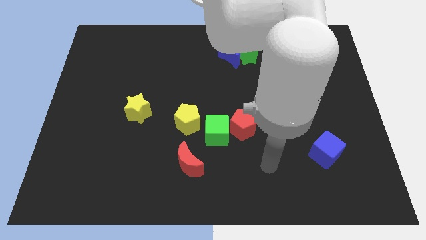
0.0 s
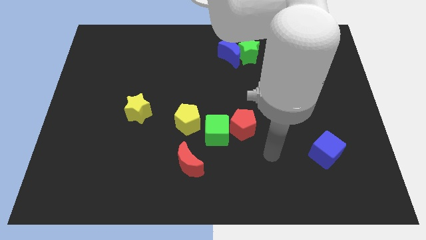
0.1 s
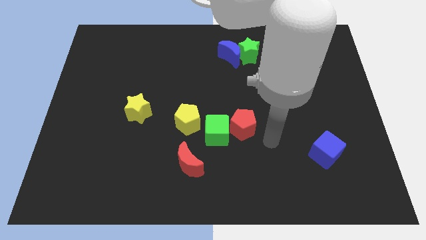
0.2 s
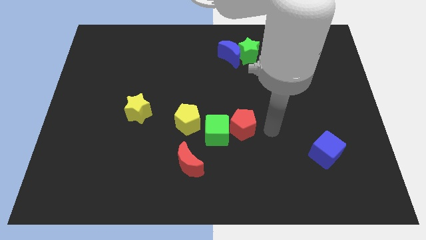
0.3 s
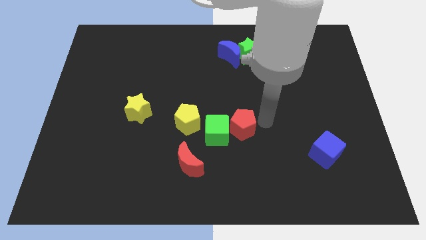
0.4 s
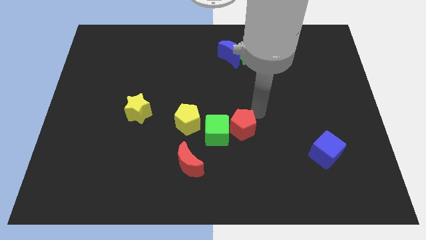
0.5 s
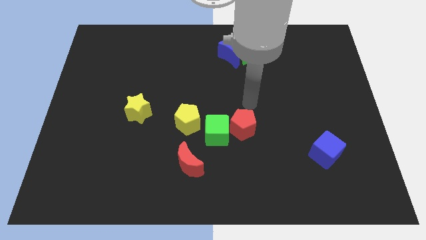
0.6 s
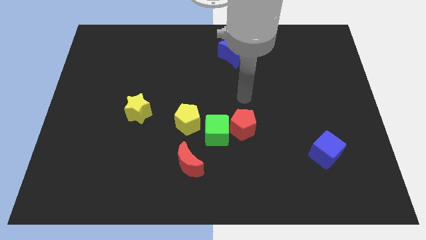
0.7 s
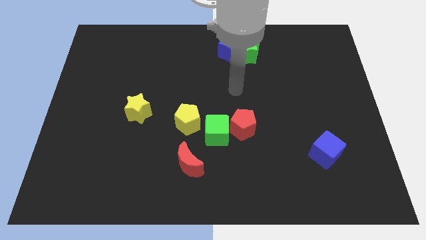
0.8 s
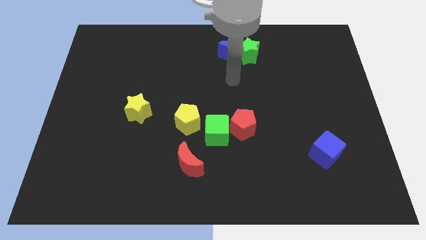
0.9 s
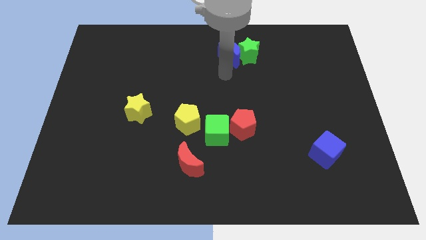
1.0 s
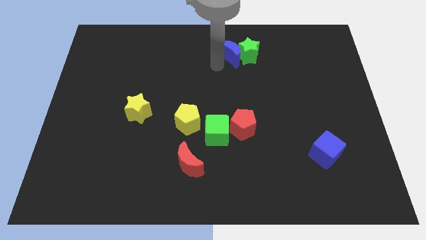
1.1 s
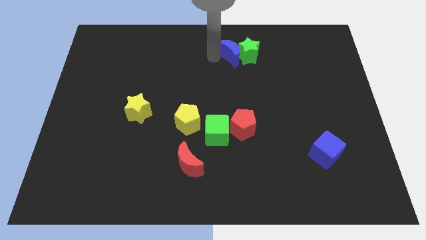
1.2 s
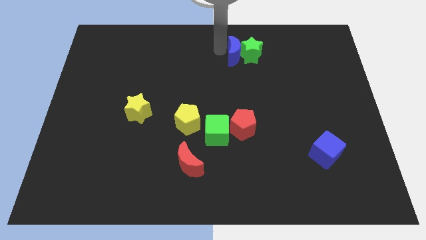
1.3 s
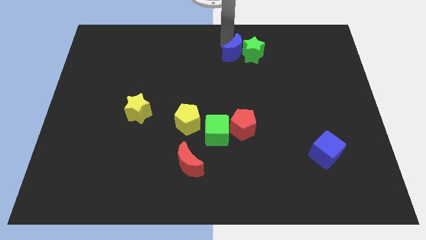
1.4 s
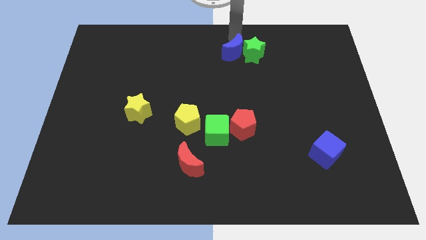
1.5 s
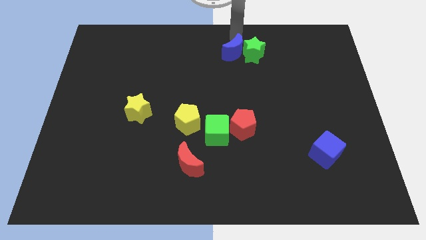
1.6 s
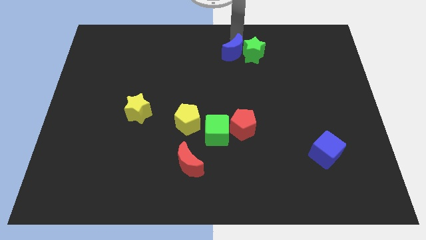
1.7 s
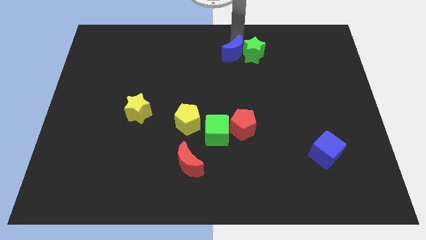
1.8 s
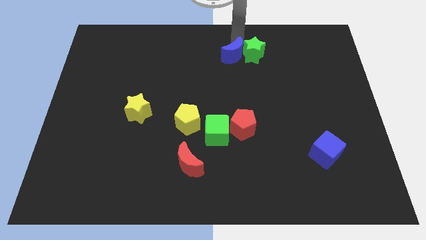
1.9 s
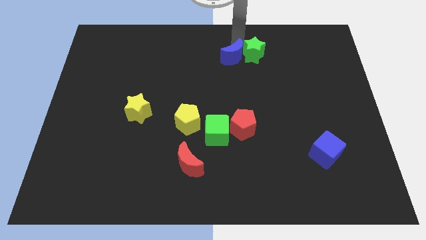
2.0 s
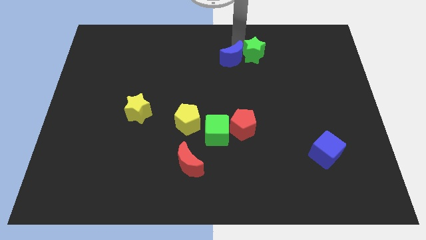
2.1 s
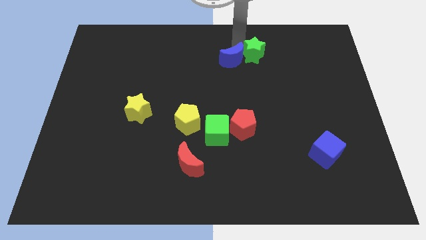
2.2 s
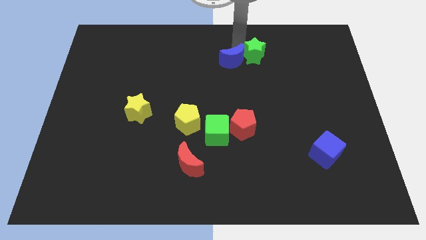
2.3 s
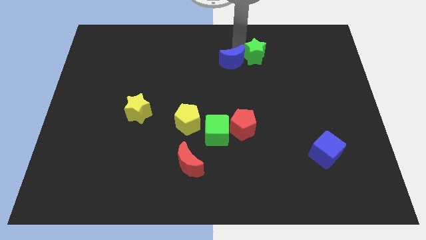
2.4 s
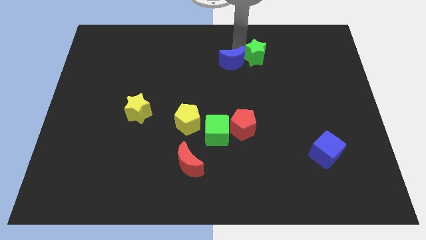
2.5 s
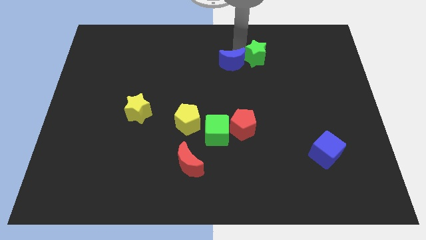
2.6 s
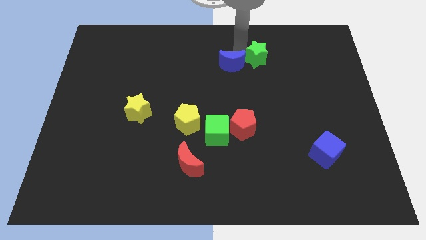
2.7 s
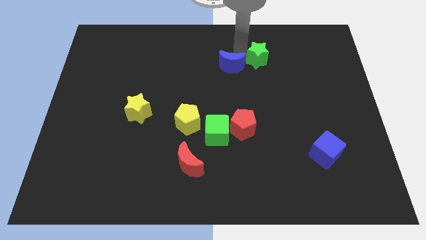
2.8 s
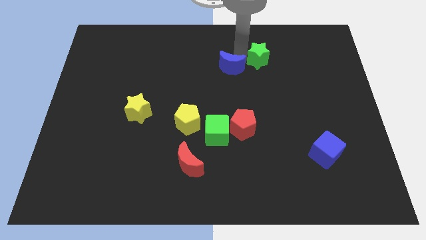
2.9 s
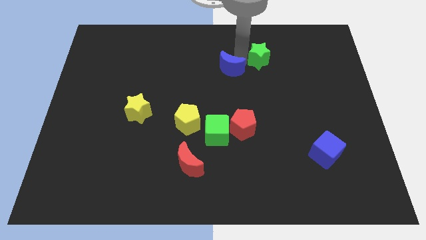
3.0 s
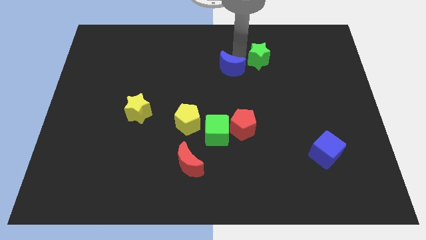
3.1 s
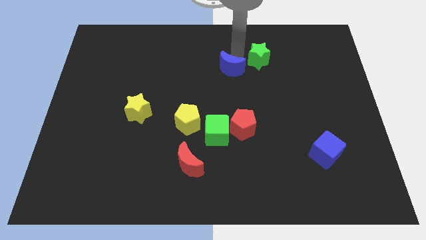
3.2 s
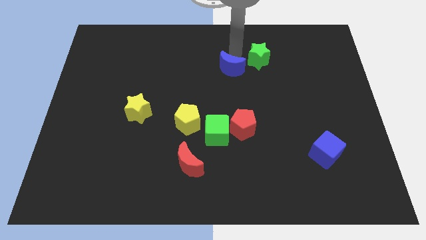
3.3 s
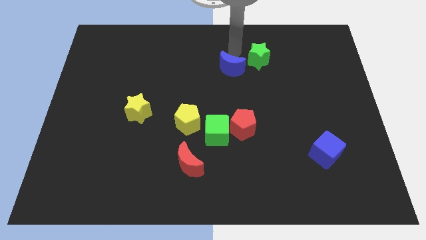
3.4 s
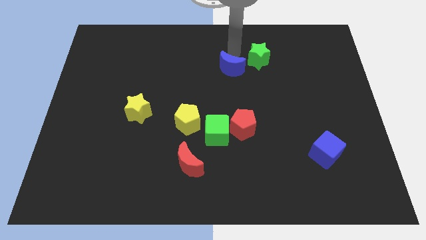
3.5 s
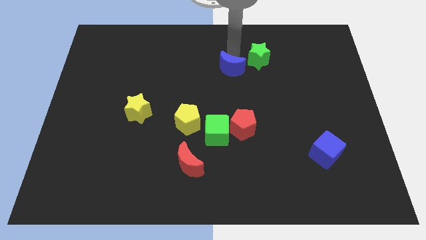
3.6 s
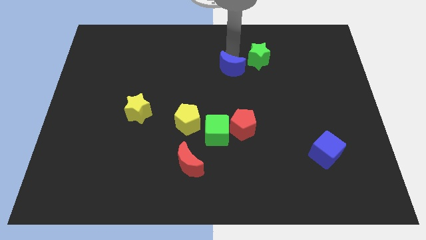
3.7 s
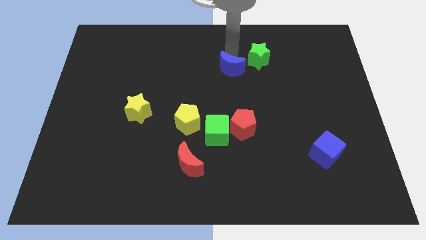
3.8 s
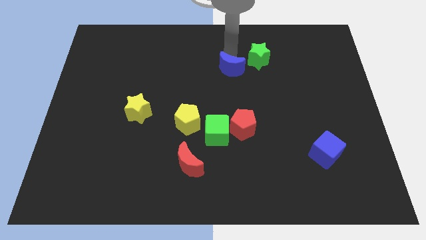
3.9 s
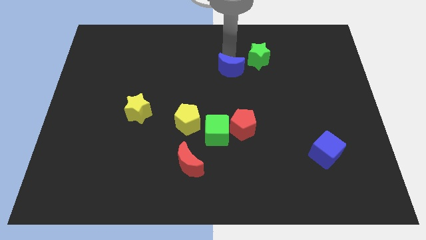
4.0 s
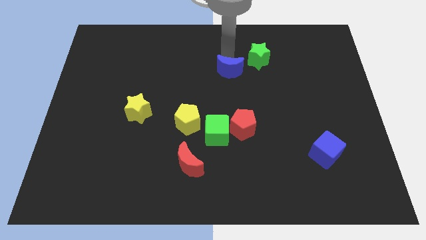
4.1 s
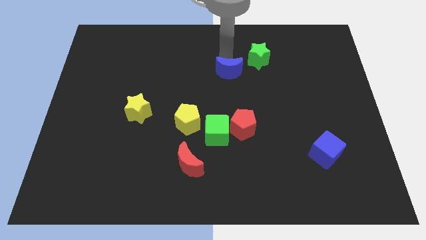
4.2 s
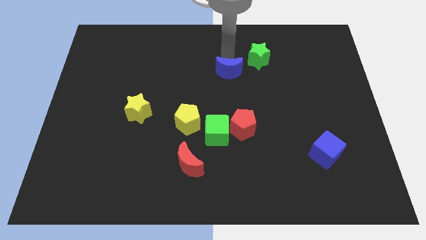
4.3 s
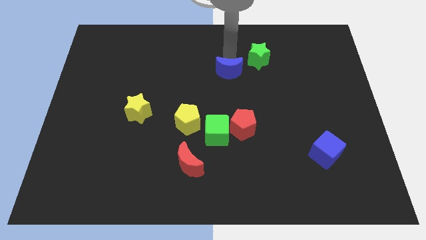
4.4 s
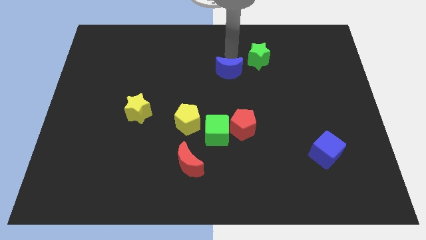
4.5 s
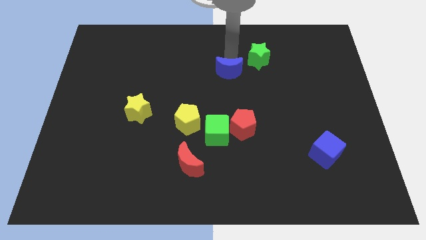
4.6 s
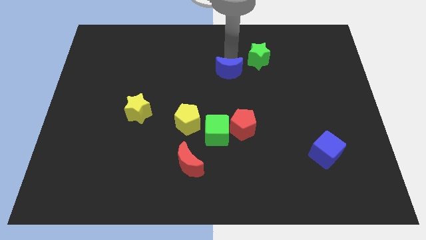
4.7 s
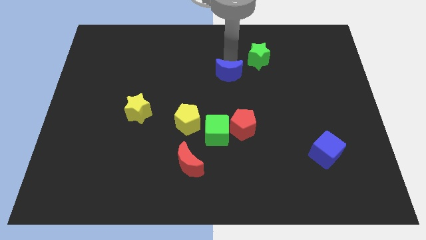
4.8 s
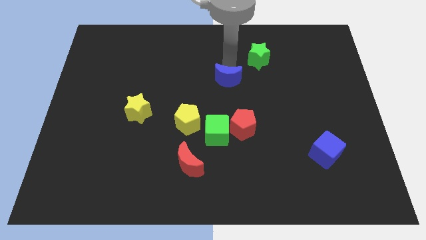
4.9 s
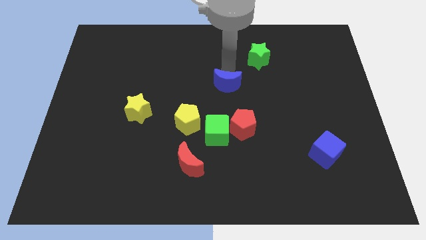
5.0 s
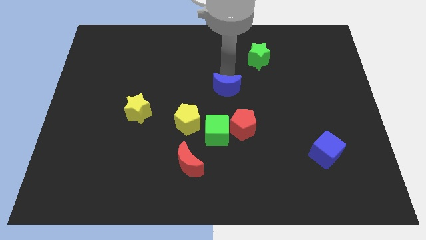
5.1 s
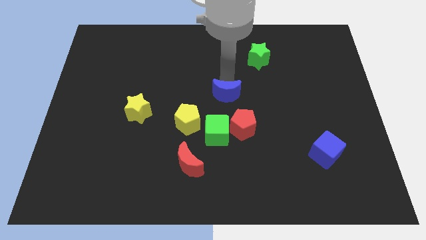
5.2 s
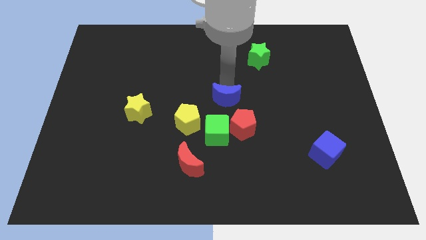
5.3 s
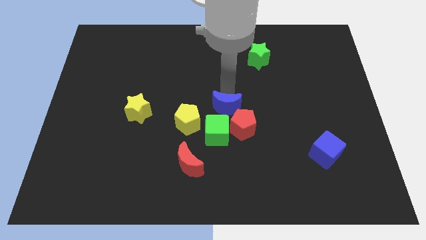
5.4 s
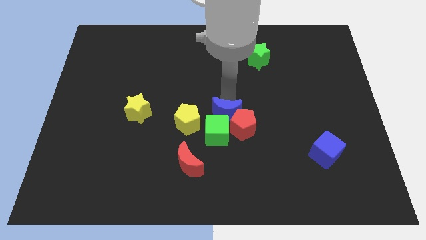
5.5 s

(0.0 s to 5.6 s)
move the blue moon close to the green cube

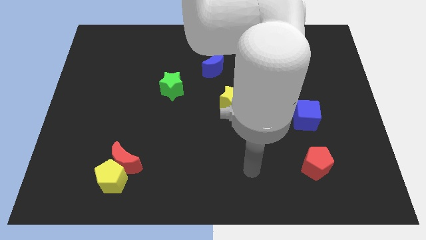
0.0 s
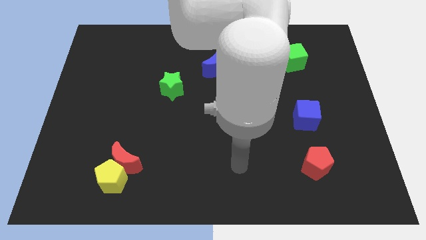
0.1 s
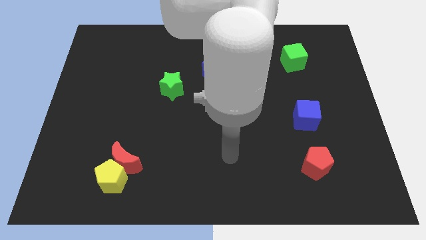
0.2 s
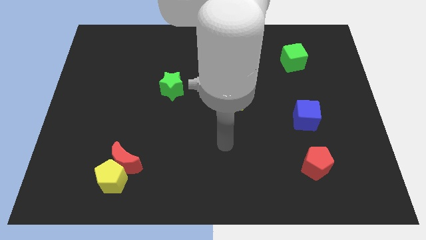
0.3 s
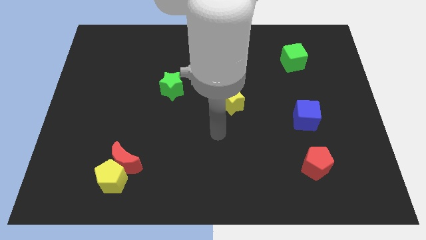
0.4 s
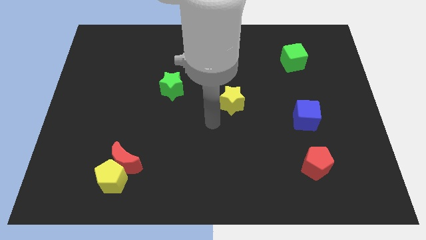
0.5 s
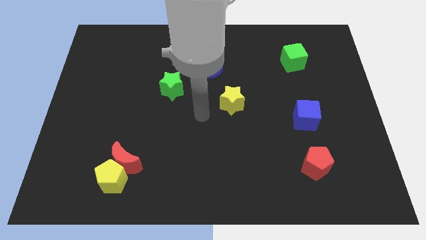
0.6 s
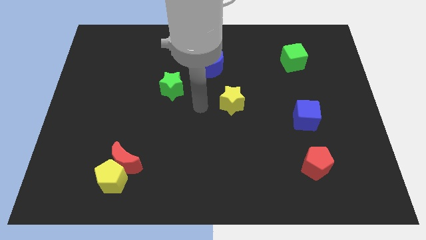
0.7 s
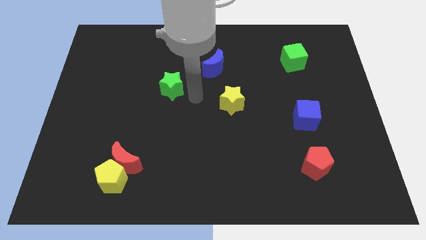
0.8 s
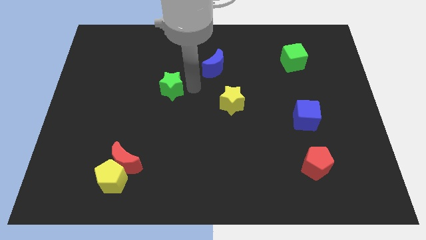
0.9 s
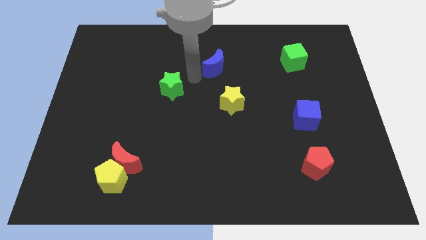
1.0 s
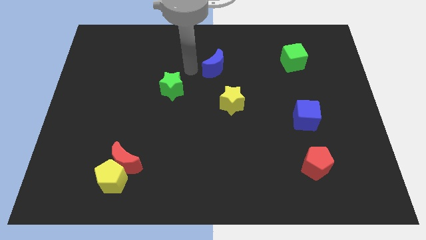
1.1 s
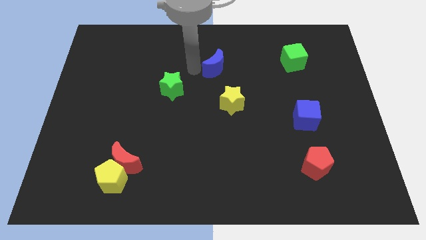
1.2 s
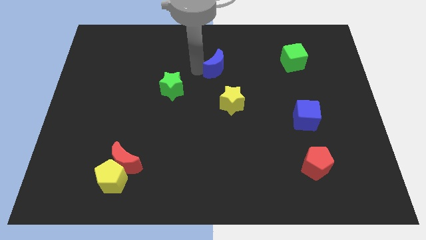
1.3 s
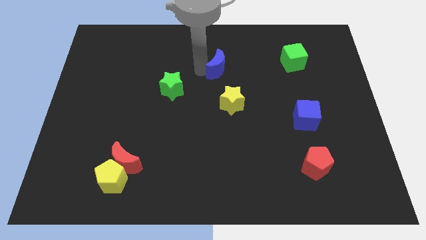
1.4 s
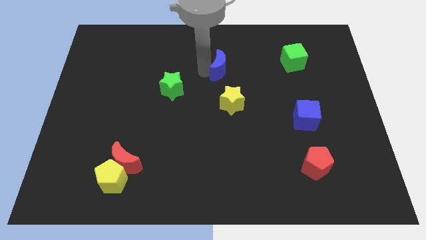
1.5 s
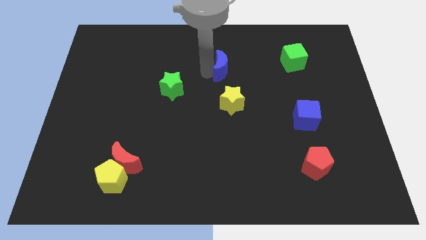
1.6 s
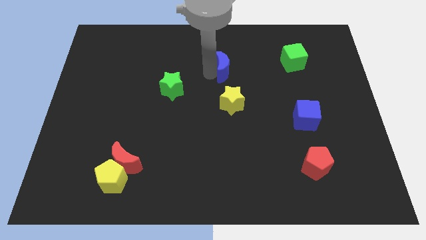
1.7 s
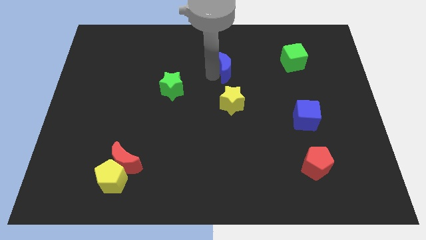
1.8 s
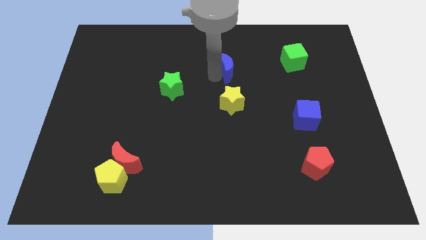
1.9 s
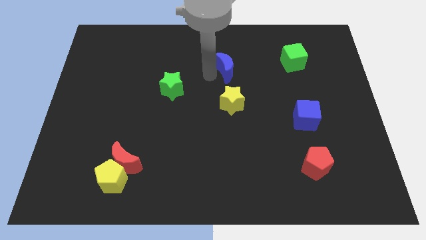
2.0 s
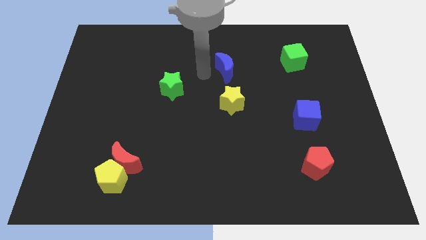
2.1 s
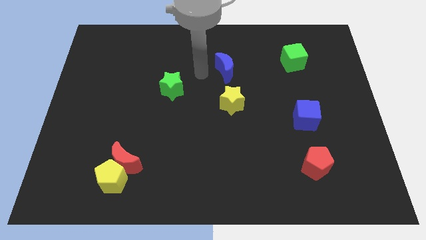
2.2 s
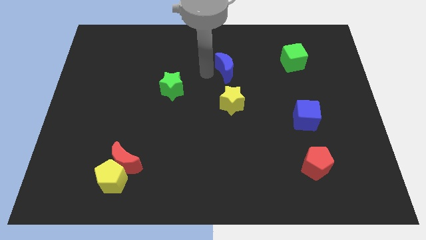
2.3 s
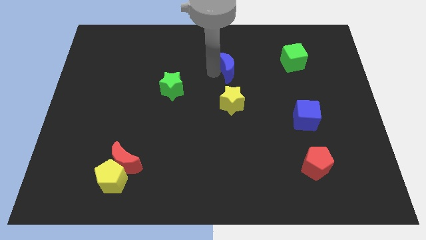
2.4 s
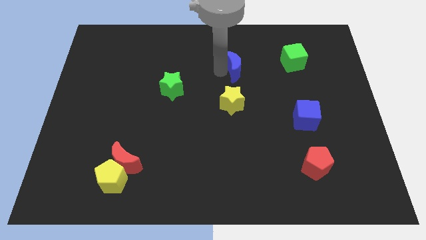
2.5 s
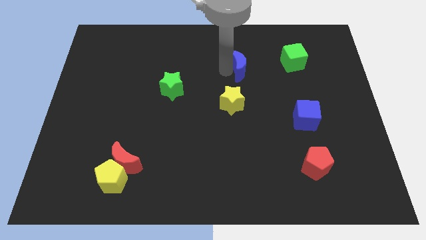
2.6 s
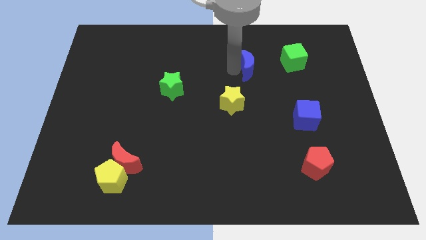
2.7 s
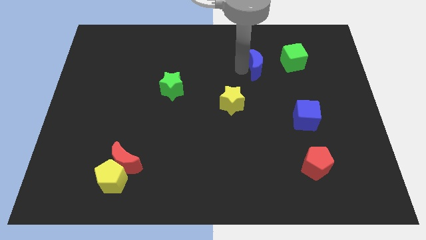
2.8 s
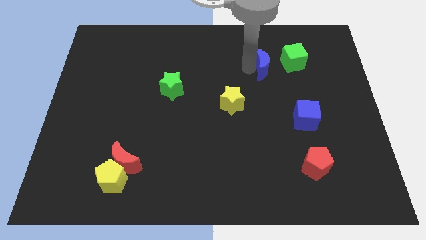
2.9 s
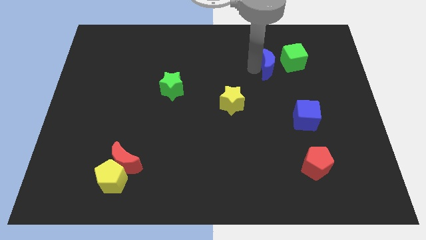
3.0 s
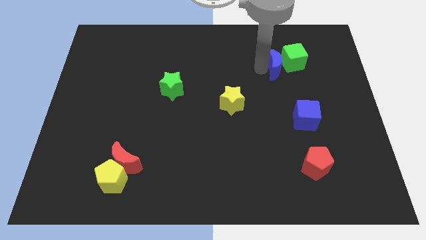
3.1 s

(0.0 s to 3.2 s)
push the blue moon close to the green cube
